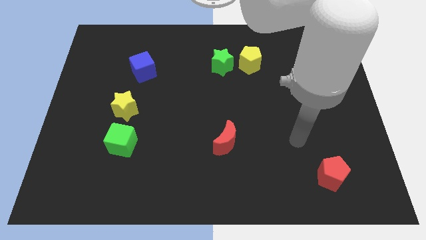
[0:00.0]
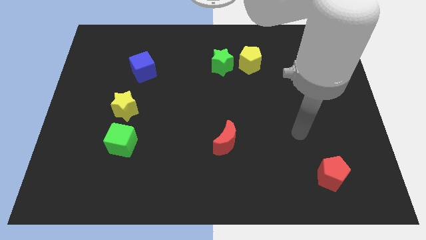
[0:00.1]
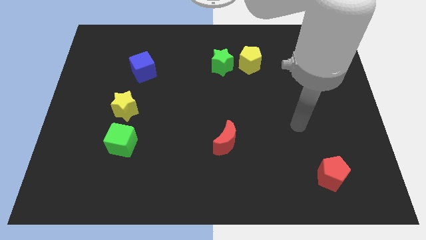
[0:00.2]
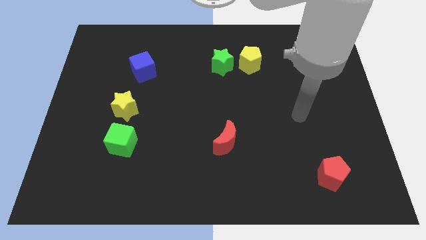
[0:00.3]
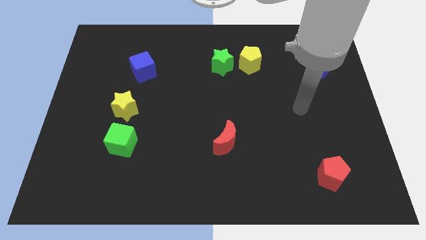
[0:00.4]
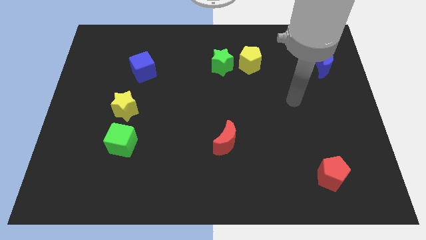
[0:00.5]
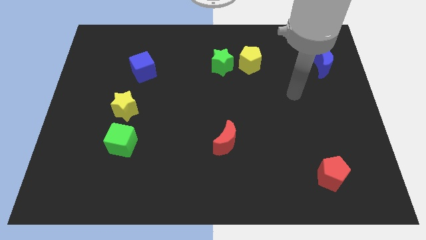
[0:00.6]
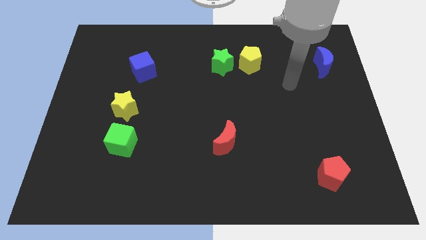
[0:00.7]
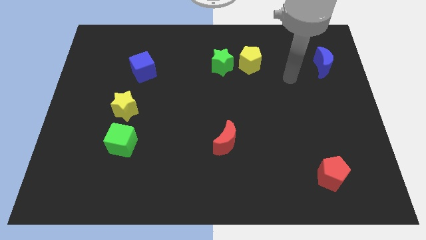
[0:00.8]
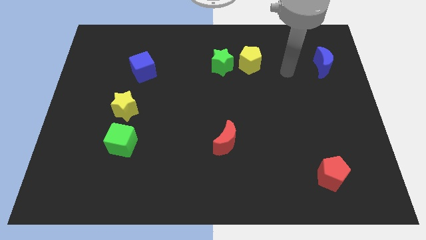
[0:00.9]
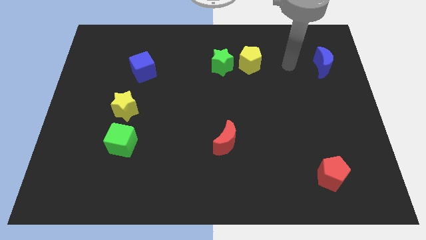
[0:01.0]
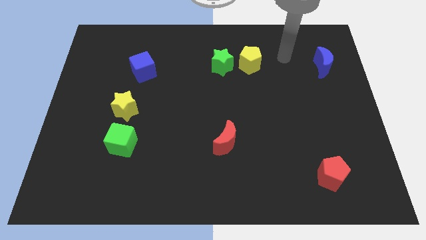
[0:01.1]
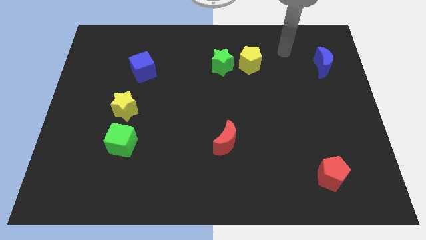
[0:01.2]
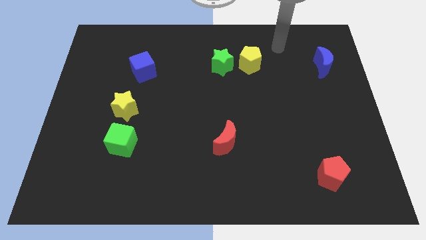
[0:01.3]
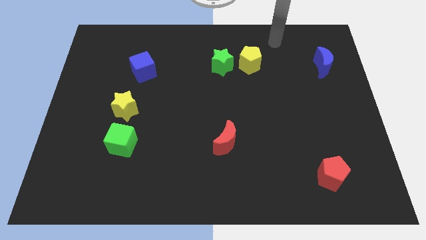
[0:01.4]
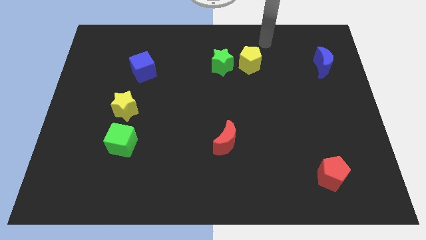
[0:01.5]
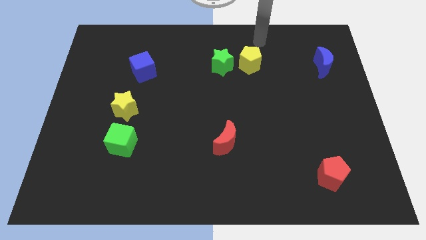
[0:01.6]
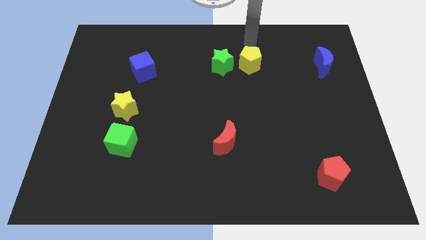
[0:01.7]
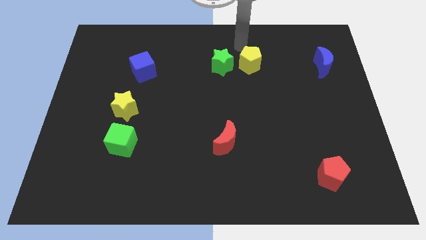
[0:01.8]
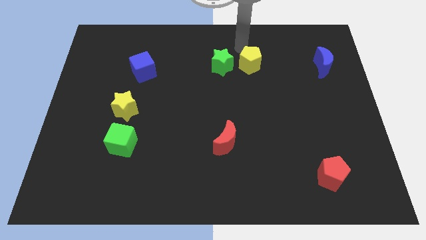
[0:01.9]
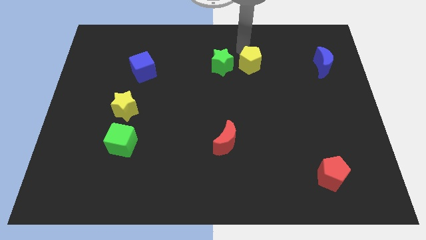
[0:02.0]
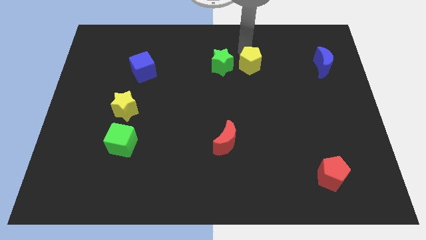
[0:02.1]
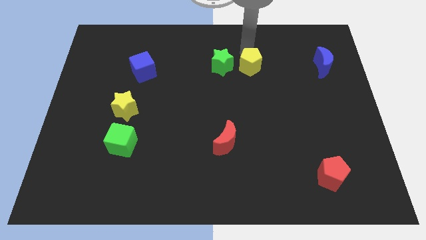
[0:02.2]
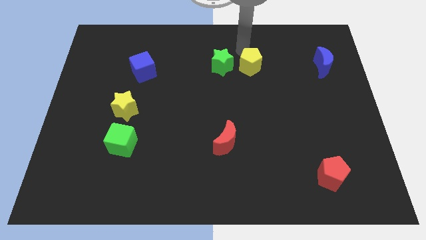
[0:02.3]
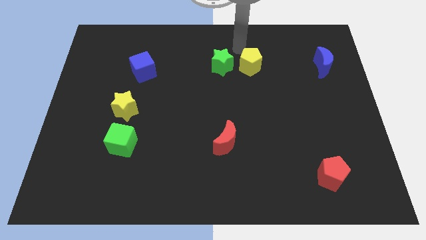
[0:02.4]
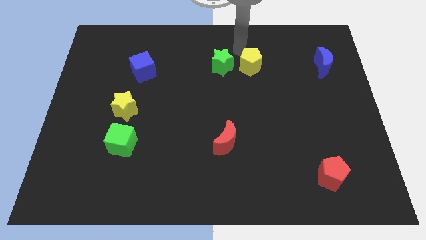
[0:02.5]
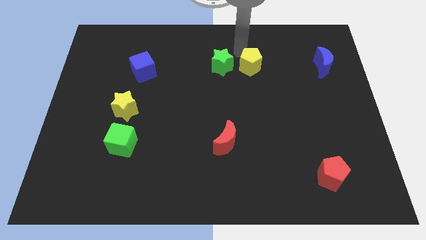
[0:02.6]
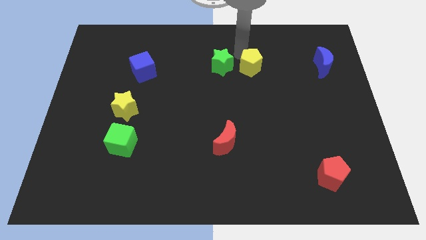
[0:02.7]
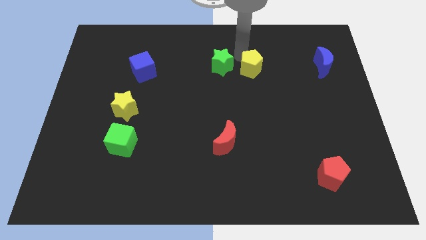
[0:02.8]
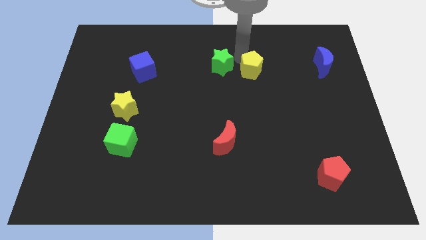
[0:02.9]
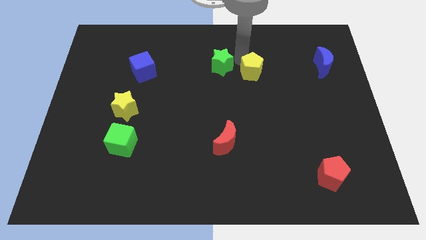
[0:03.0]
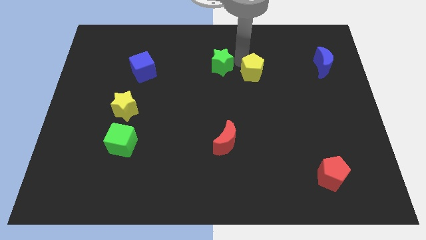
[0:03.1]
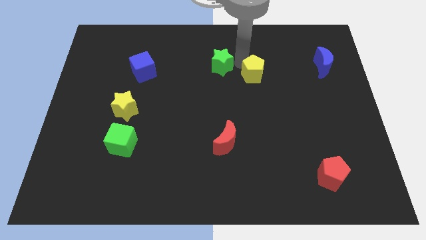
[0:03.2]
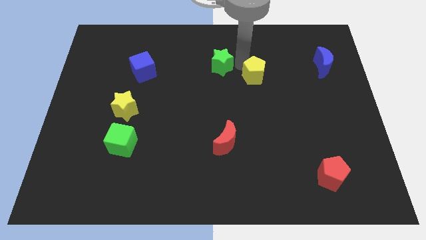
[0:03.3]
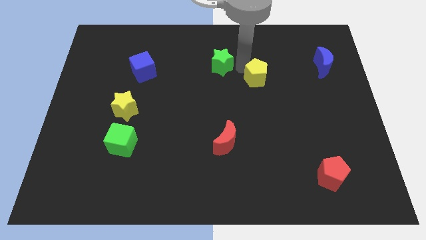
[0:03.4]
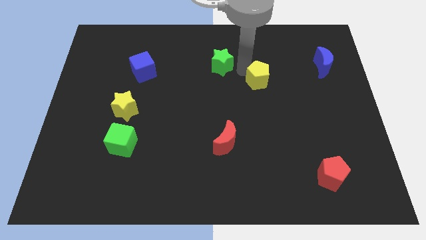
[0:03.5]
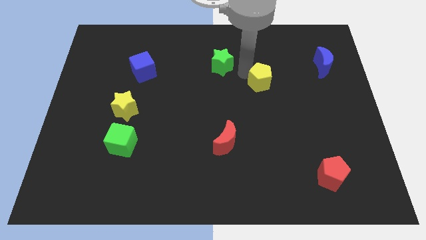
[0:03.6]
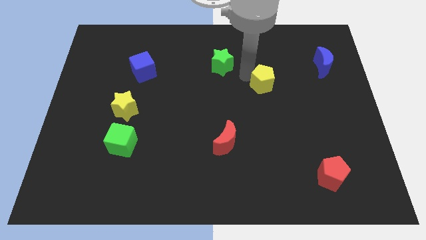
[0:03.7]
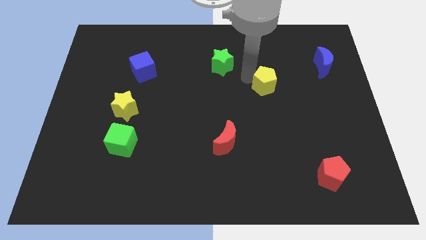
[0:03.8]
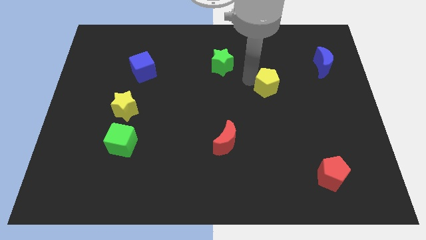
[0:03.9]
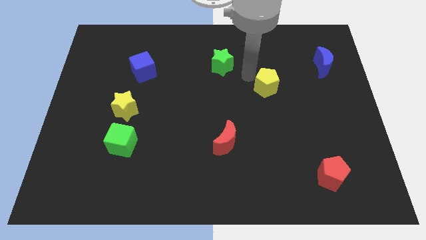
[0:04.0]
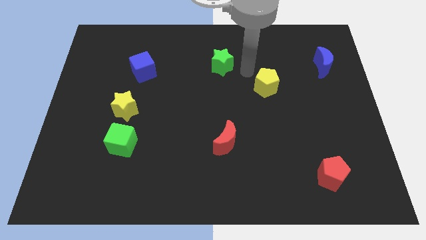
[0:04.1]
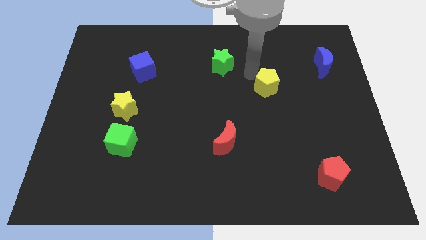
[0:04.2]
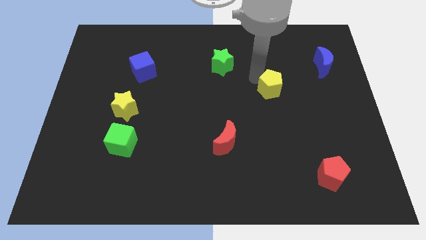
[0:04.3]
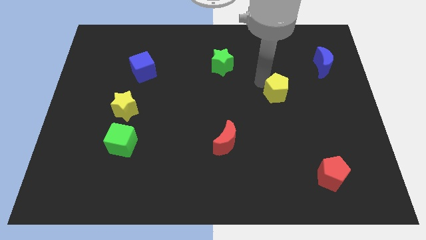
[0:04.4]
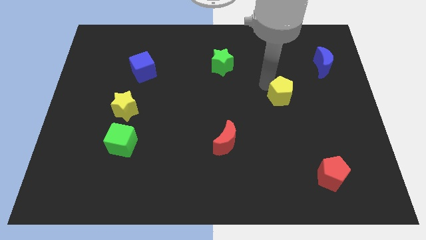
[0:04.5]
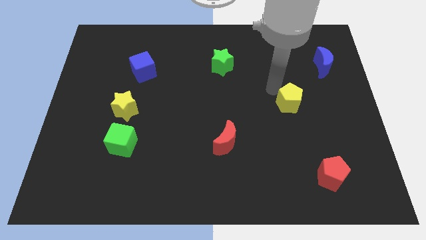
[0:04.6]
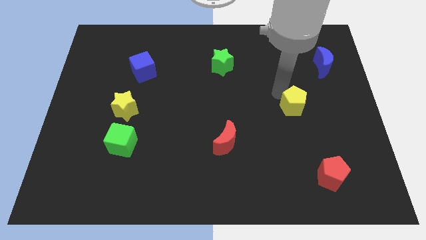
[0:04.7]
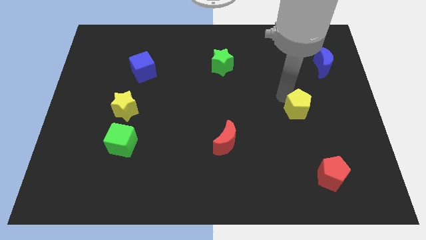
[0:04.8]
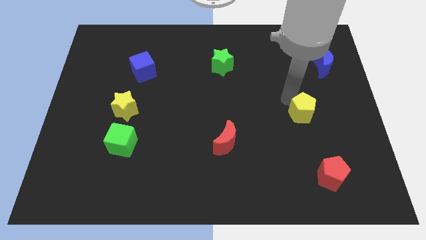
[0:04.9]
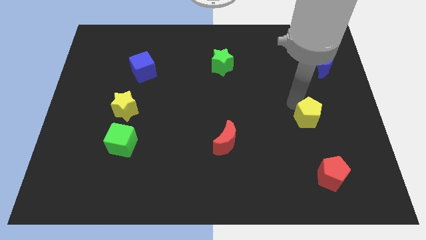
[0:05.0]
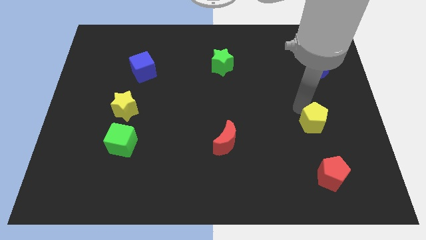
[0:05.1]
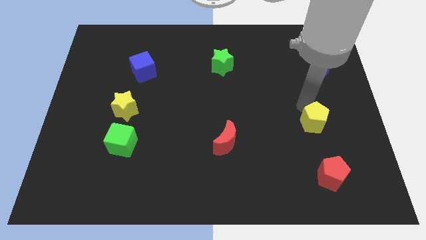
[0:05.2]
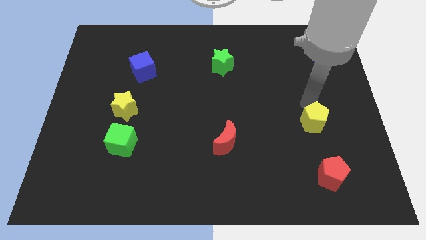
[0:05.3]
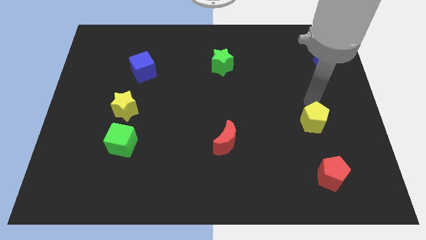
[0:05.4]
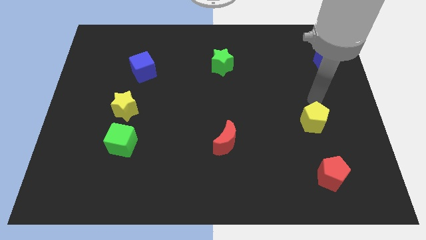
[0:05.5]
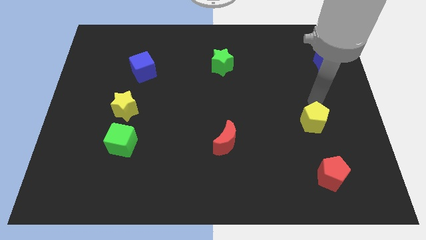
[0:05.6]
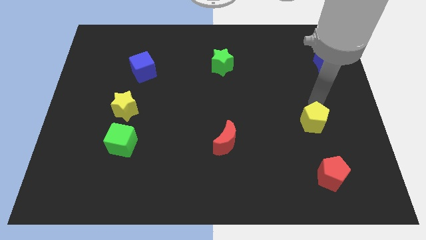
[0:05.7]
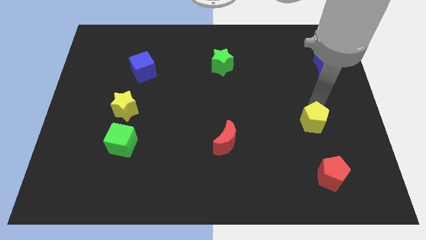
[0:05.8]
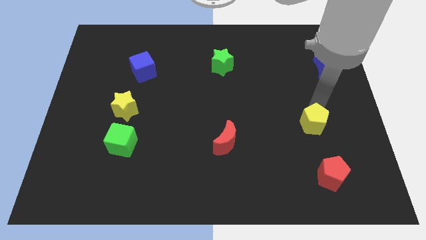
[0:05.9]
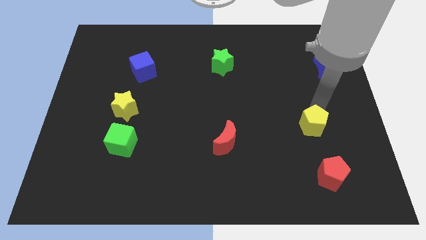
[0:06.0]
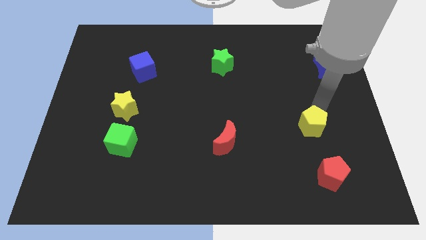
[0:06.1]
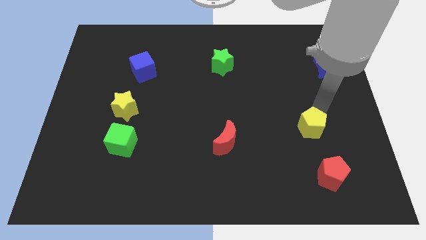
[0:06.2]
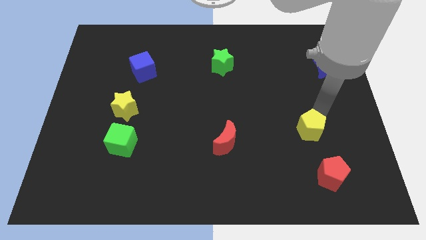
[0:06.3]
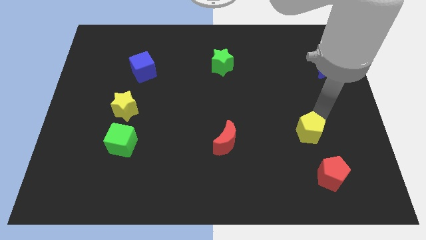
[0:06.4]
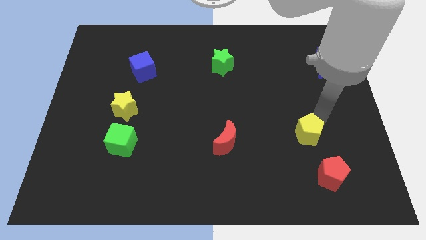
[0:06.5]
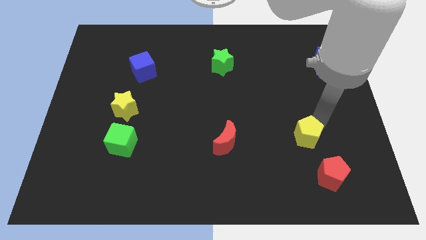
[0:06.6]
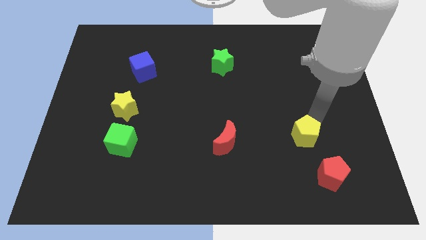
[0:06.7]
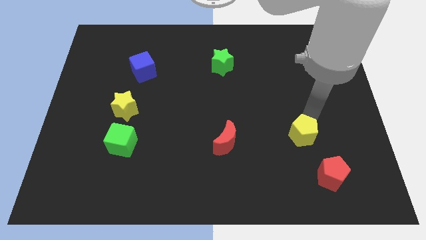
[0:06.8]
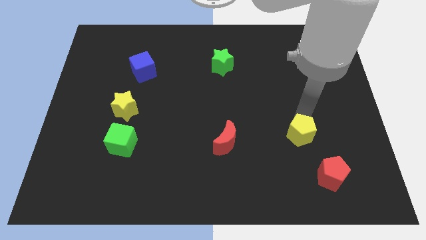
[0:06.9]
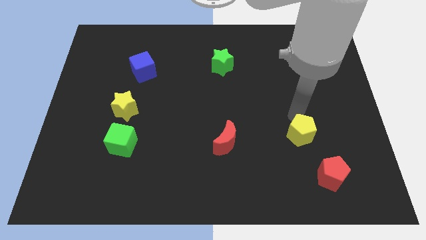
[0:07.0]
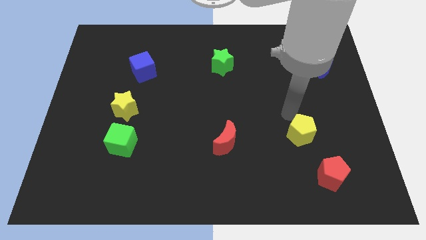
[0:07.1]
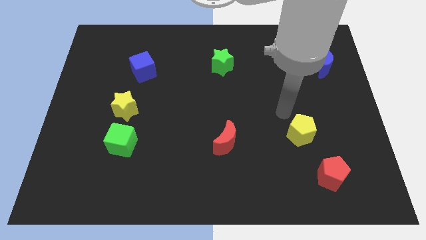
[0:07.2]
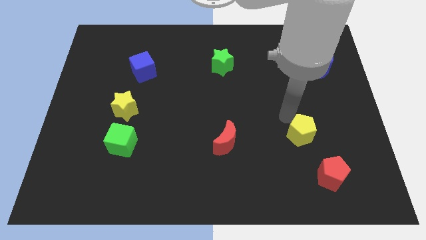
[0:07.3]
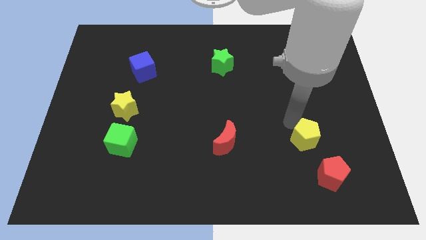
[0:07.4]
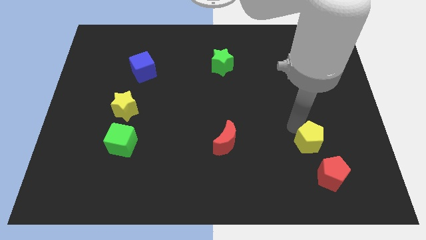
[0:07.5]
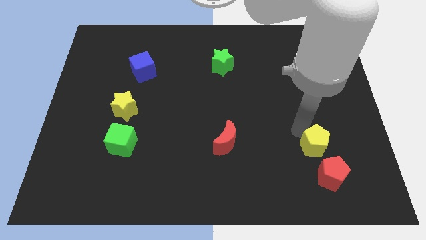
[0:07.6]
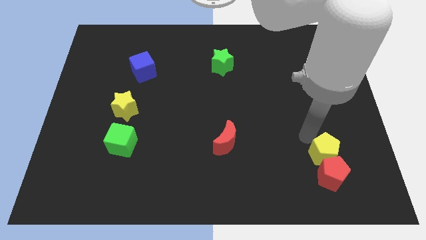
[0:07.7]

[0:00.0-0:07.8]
push the yellow pentagon to the red pentagon
